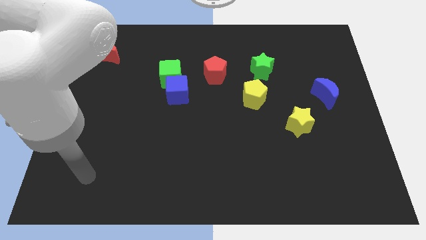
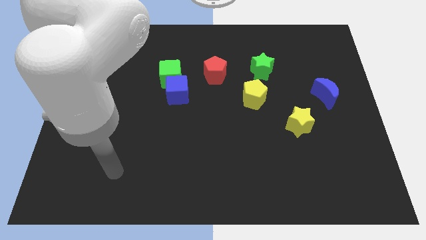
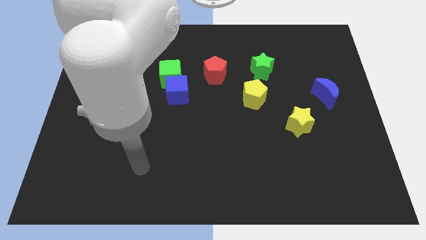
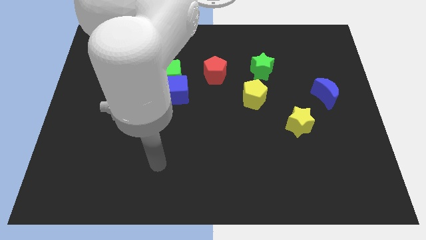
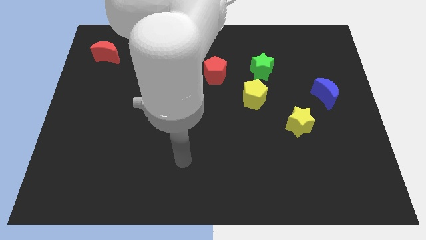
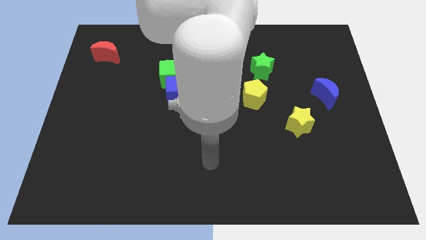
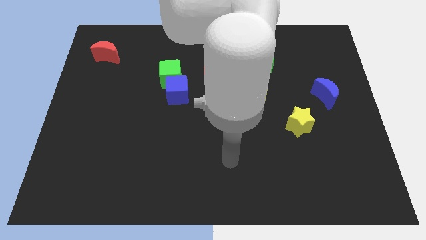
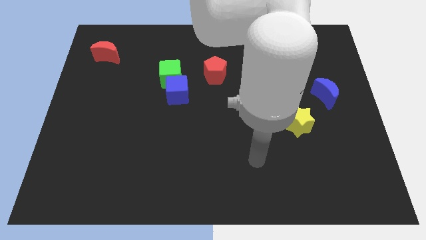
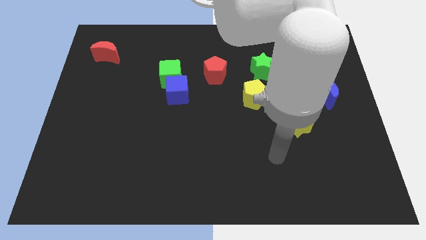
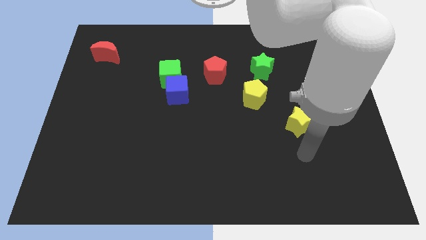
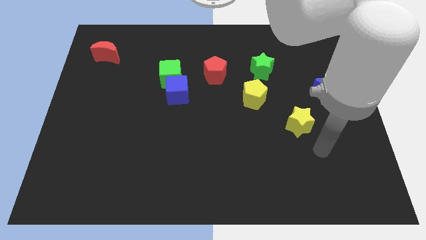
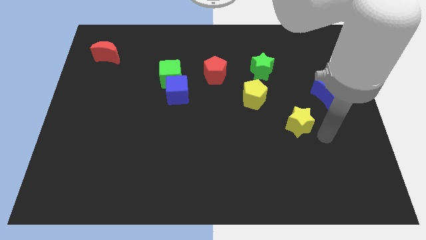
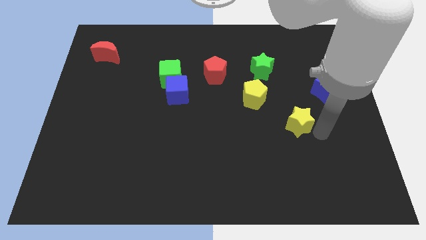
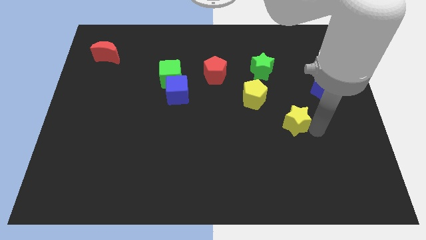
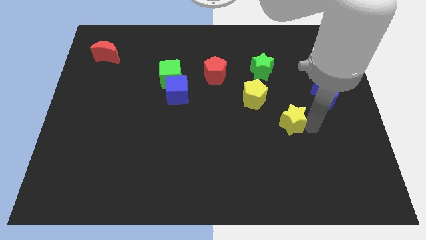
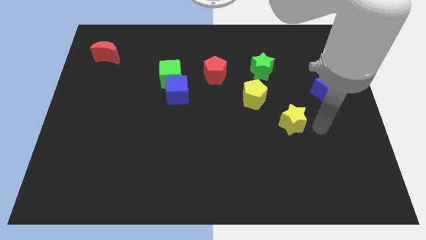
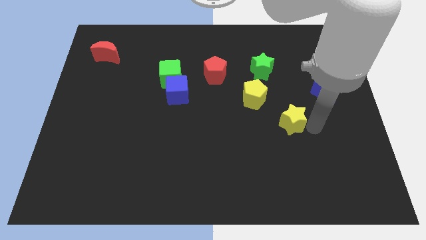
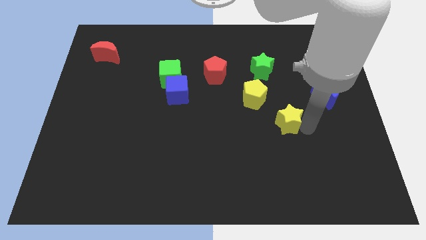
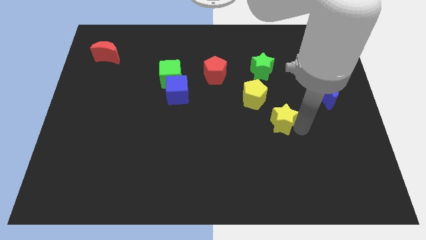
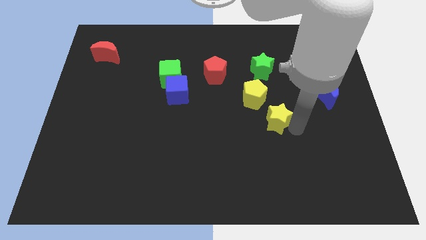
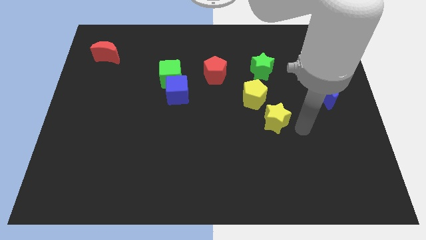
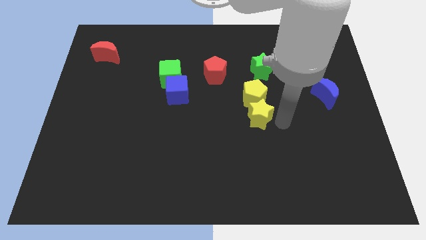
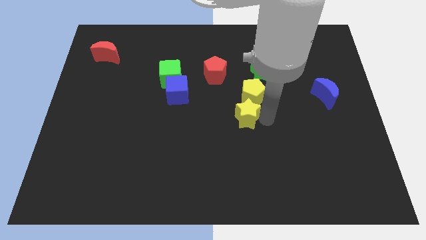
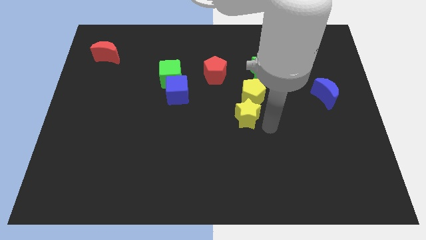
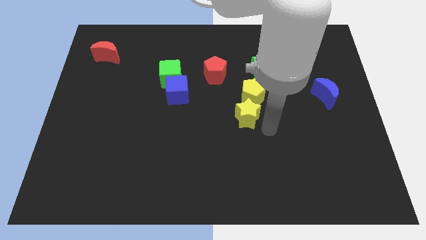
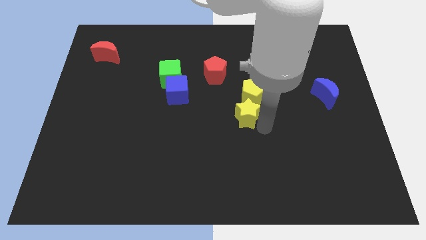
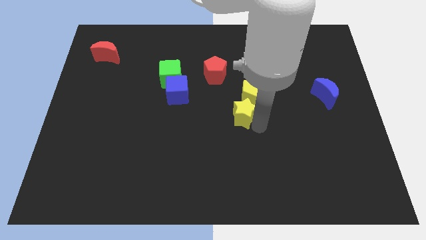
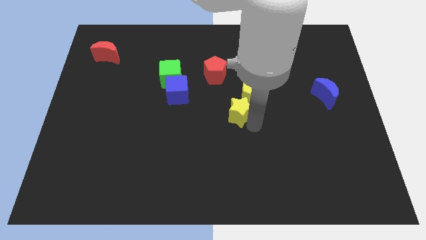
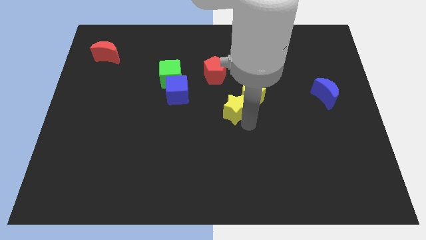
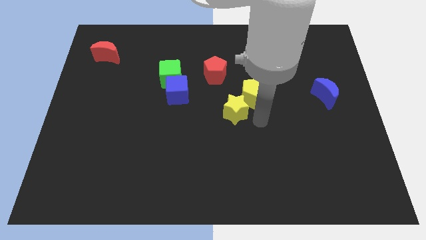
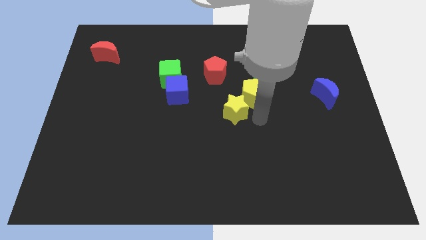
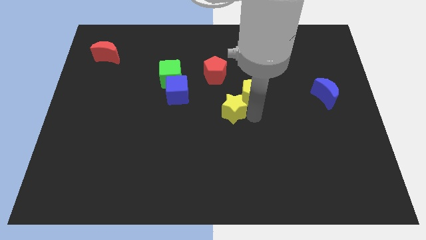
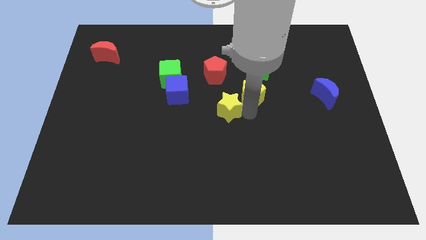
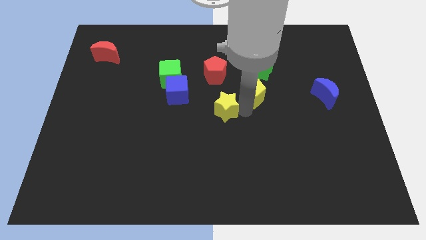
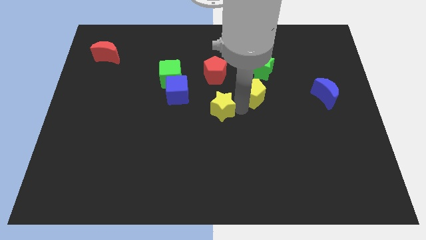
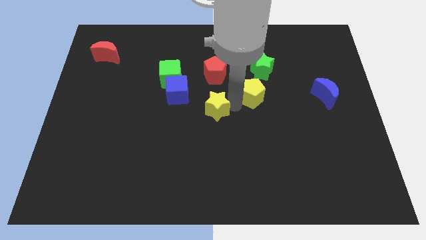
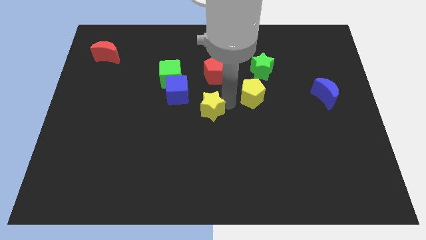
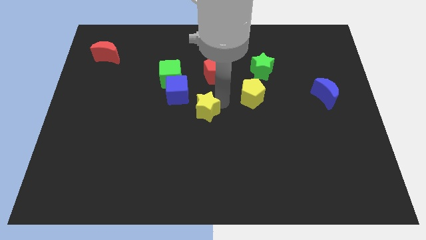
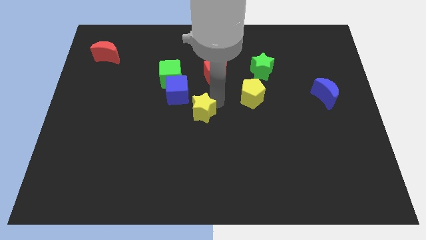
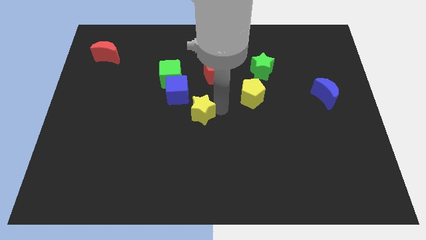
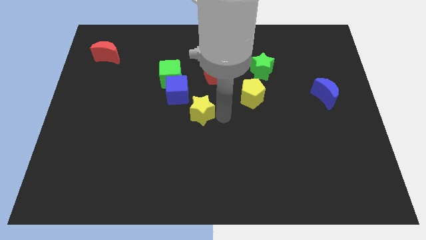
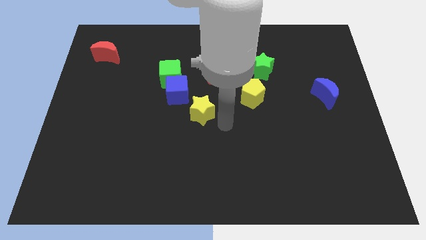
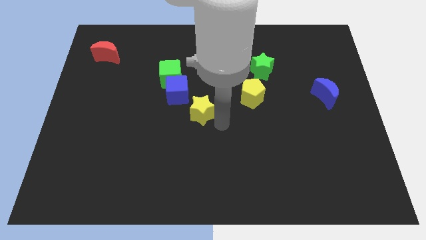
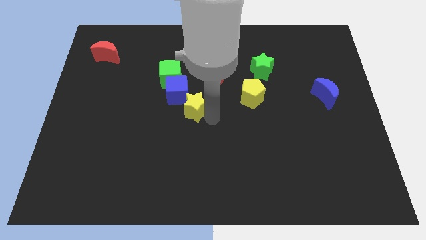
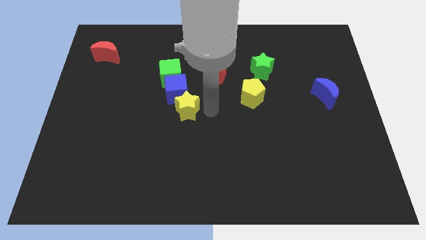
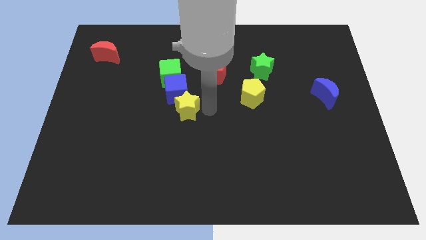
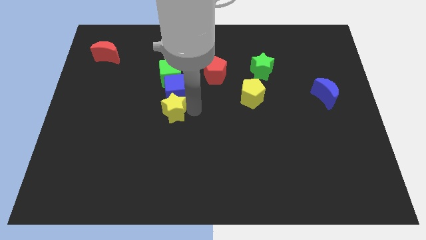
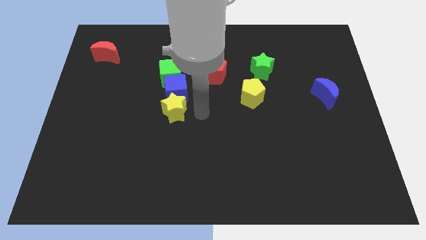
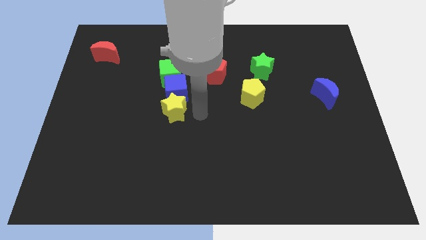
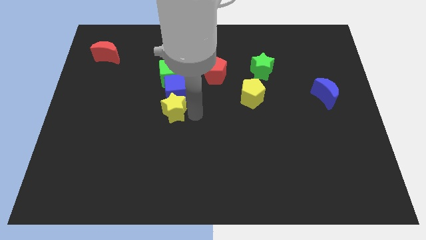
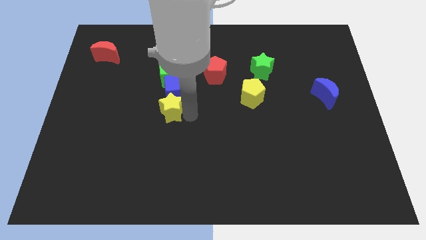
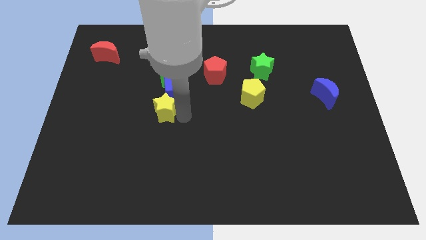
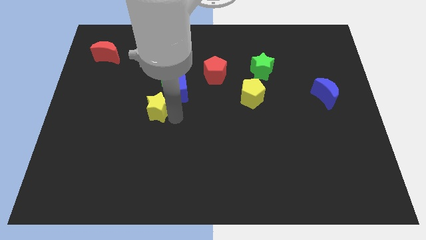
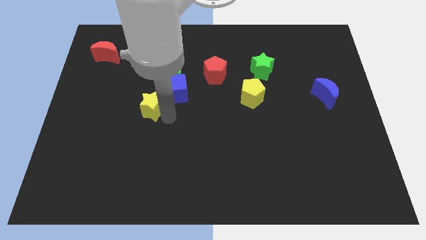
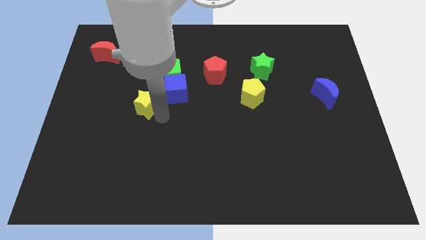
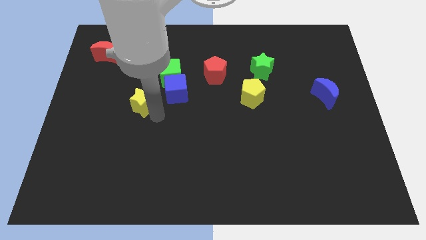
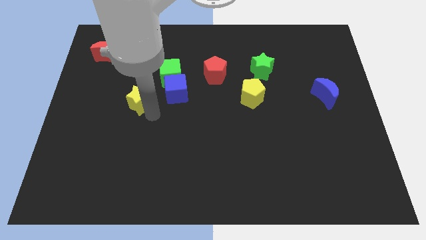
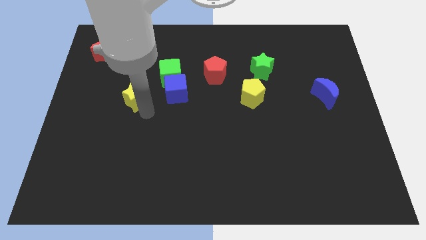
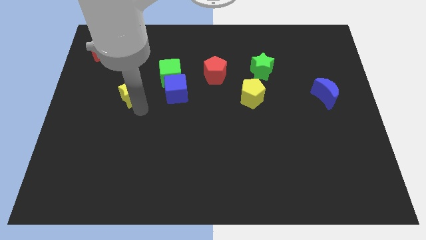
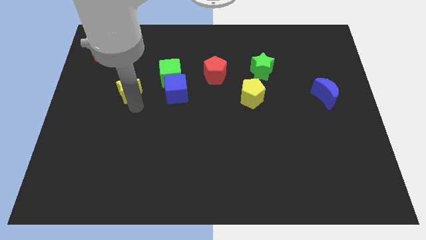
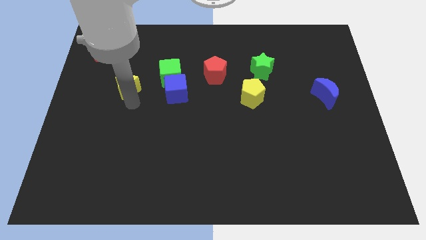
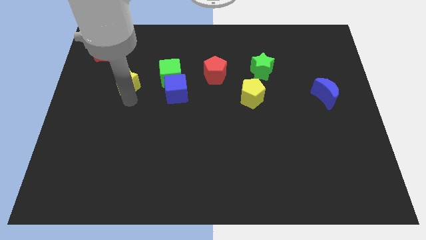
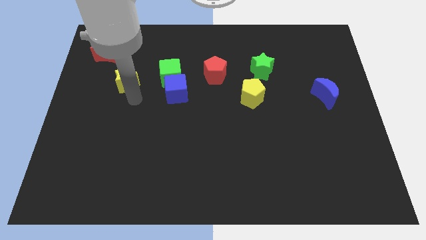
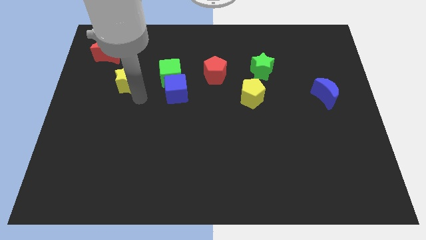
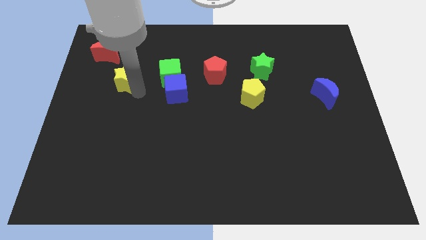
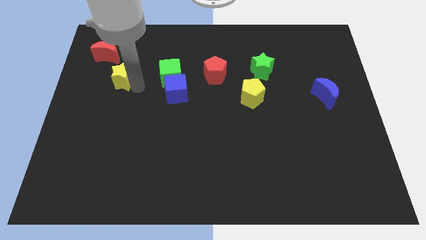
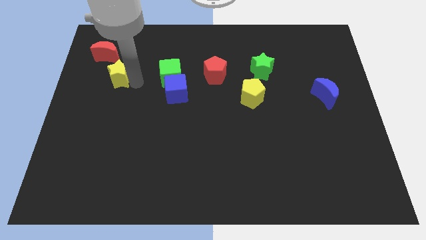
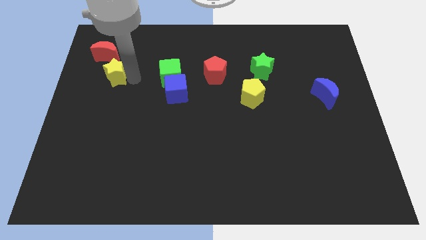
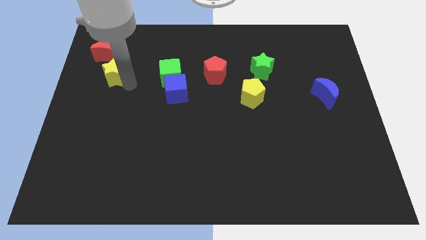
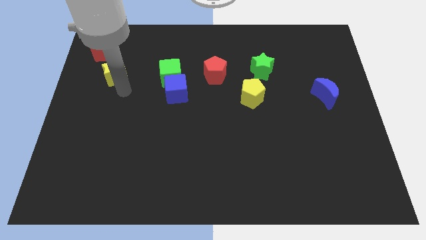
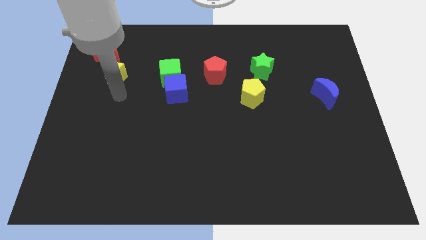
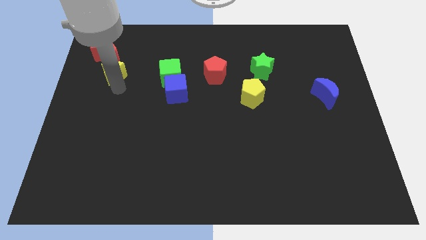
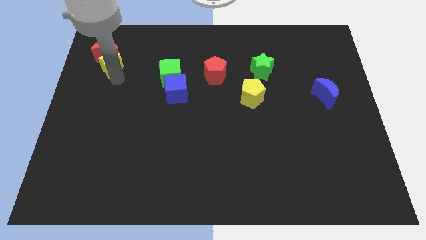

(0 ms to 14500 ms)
slide the yellow star close to the red moon

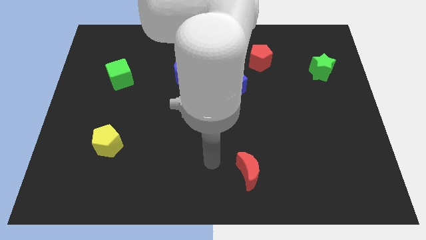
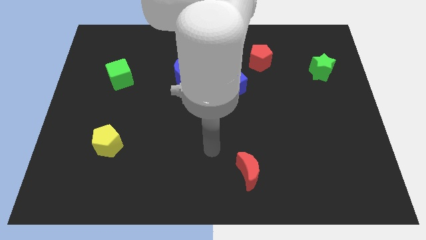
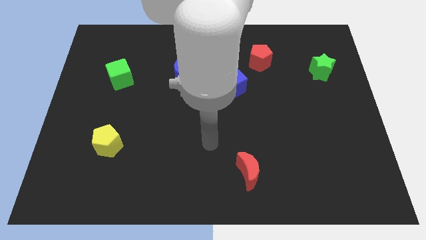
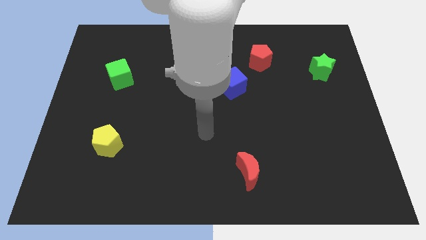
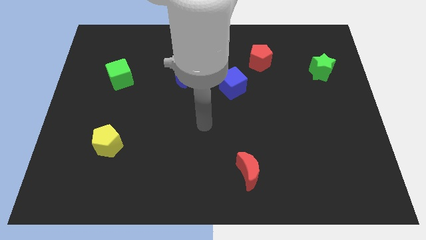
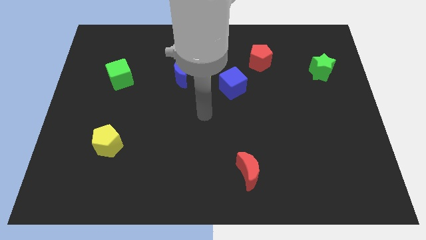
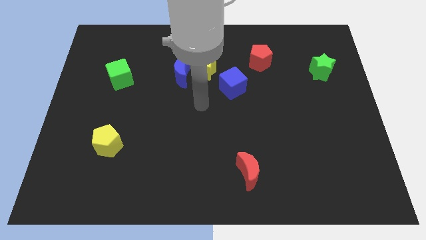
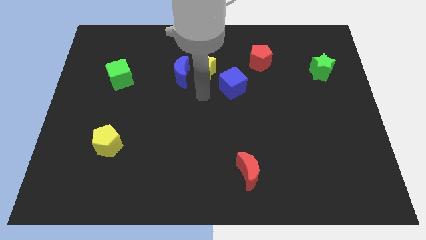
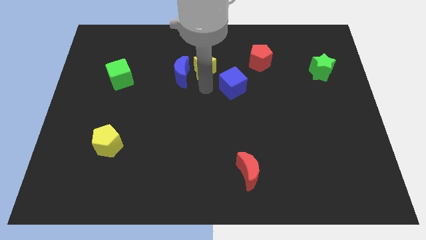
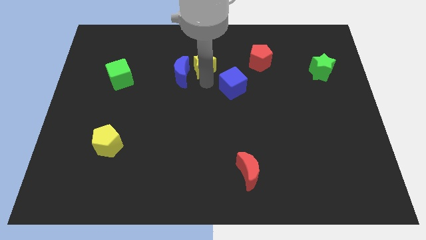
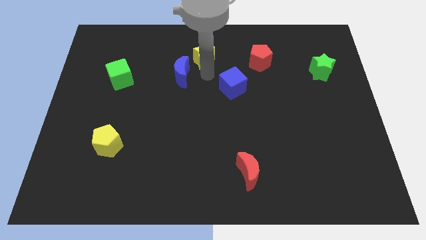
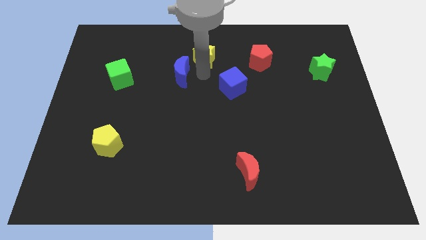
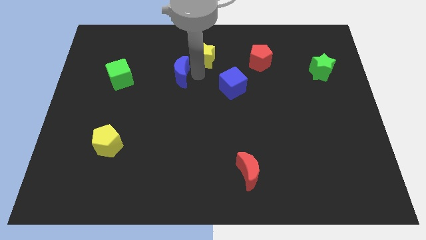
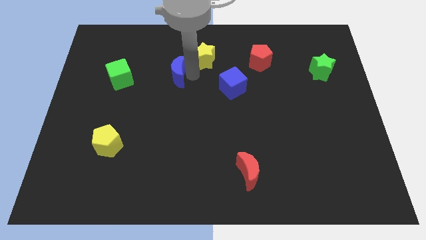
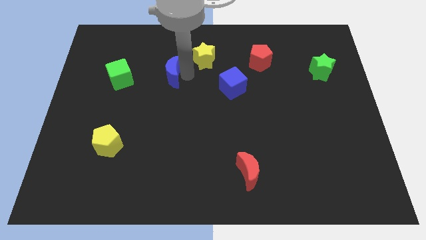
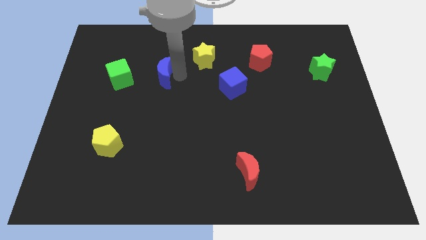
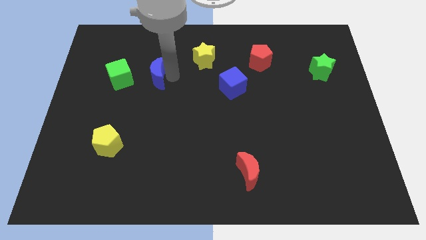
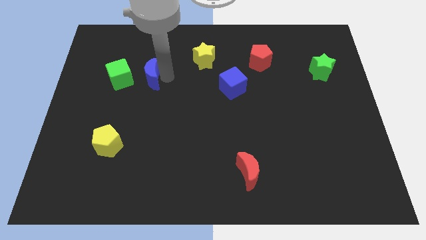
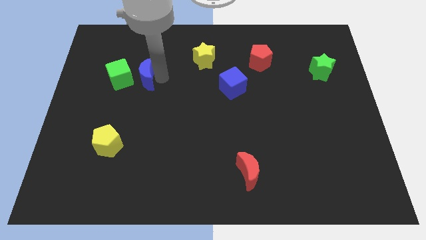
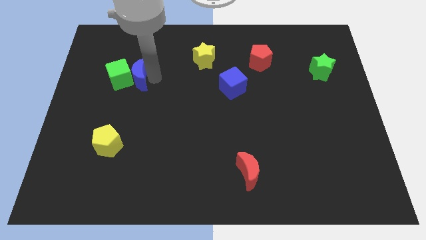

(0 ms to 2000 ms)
move the blue moon next to the green cube
